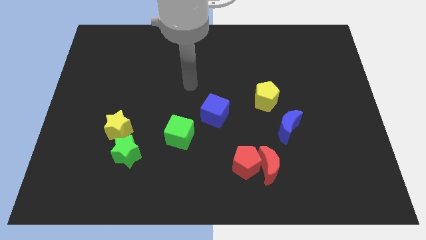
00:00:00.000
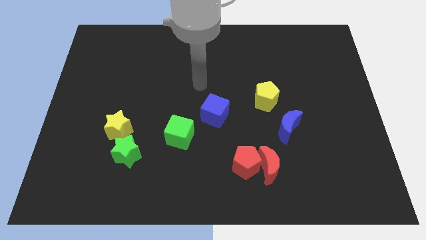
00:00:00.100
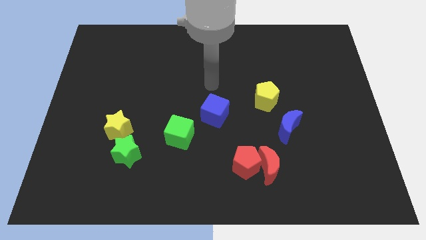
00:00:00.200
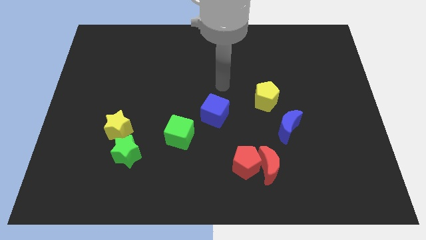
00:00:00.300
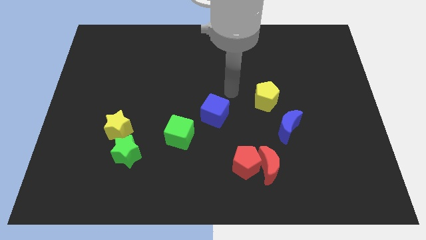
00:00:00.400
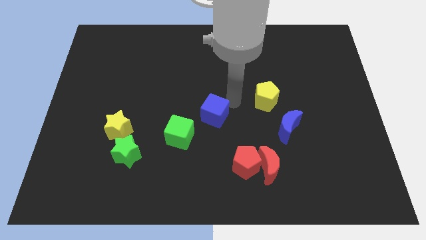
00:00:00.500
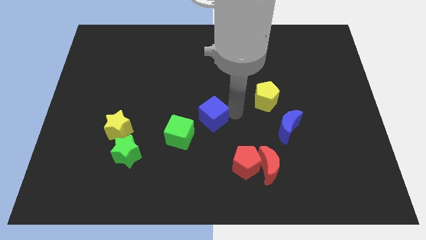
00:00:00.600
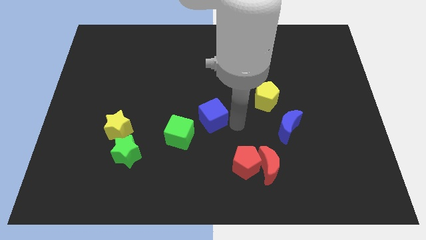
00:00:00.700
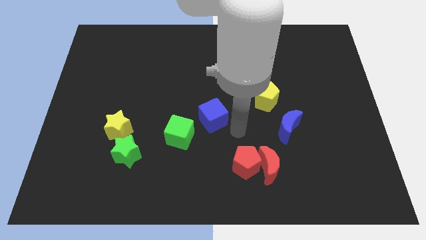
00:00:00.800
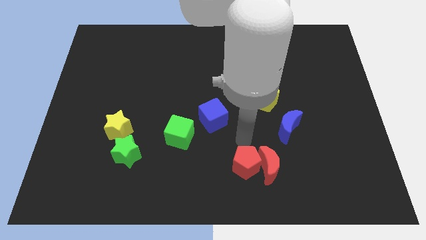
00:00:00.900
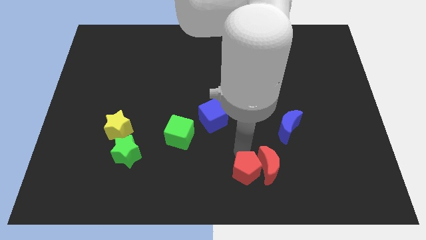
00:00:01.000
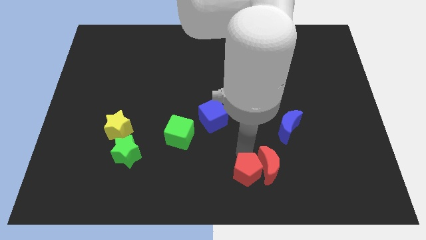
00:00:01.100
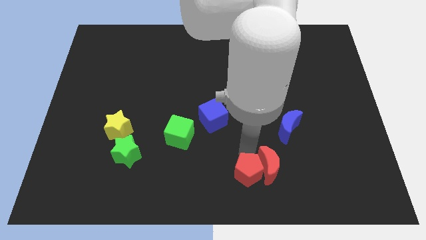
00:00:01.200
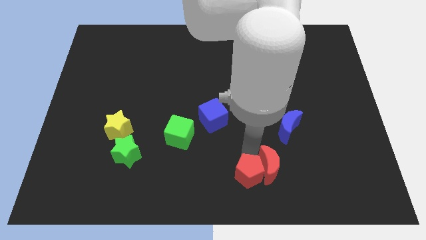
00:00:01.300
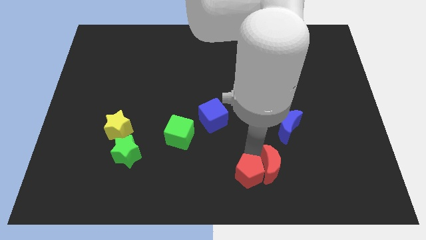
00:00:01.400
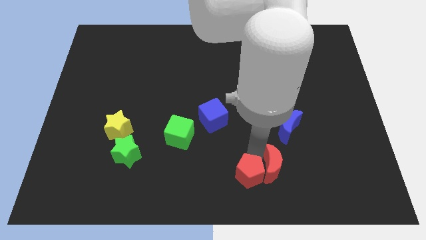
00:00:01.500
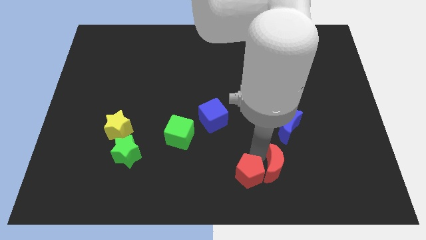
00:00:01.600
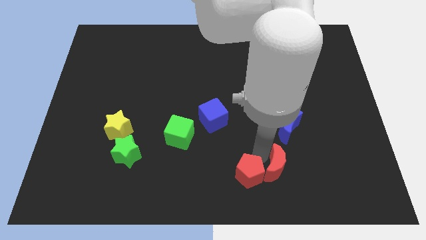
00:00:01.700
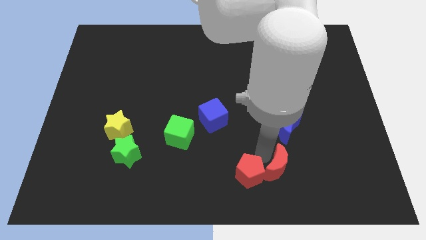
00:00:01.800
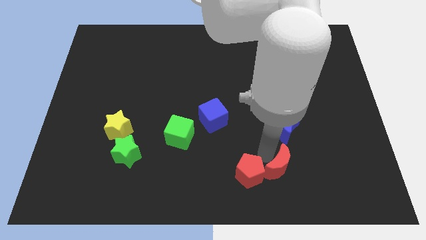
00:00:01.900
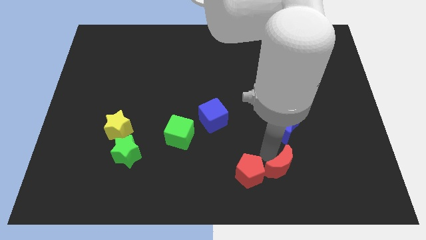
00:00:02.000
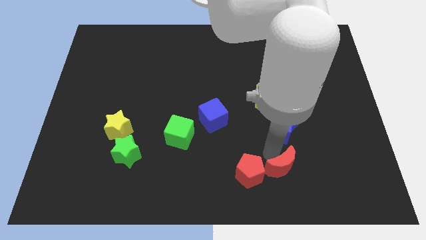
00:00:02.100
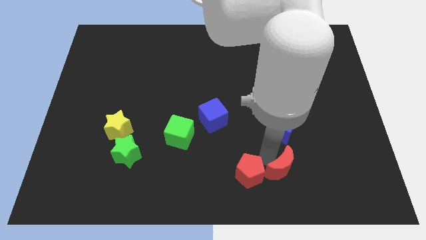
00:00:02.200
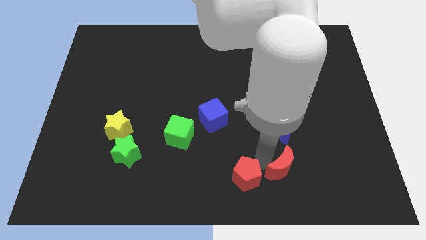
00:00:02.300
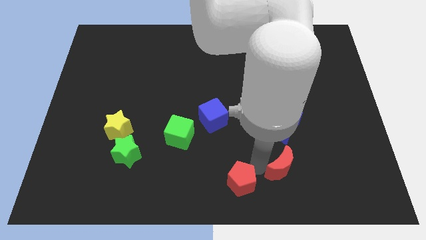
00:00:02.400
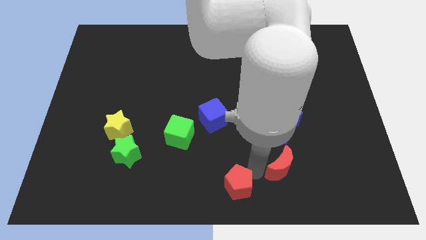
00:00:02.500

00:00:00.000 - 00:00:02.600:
move the red moon away from the red pentagon

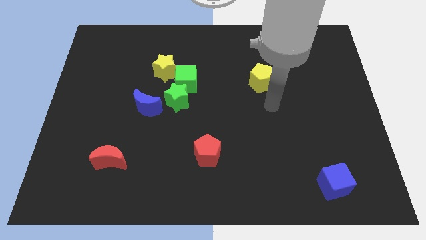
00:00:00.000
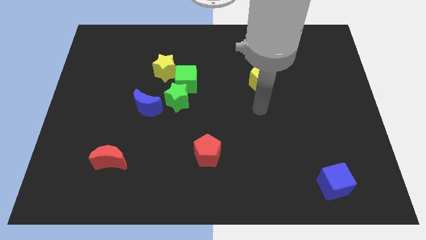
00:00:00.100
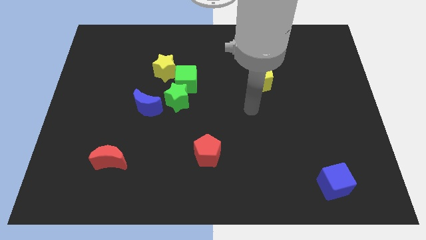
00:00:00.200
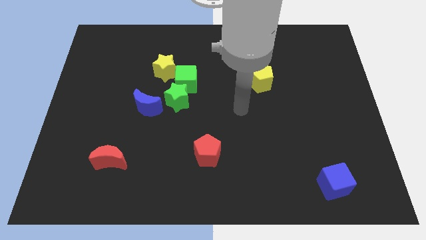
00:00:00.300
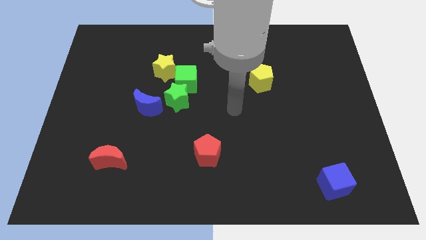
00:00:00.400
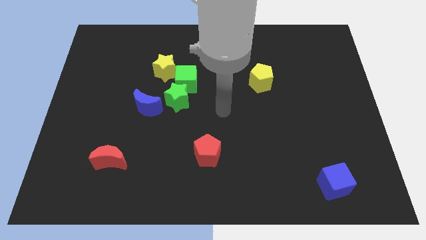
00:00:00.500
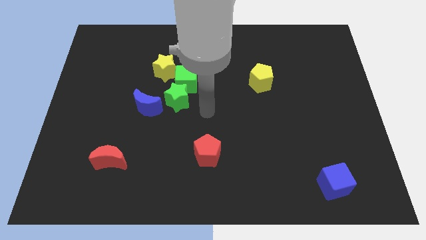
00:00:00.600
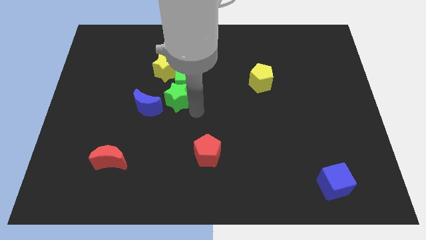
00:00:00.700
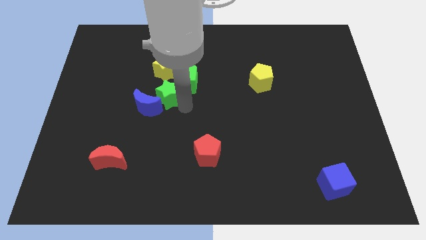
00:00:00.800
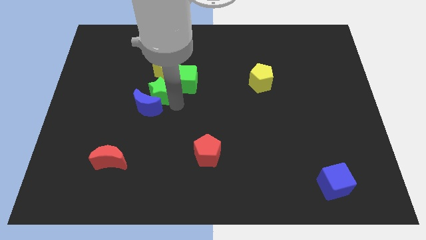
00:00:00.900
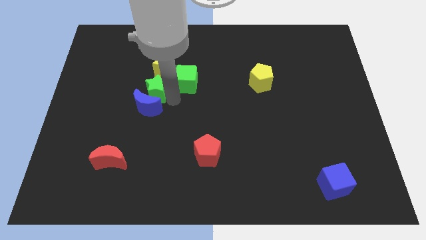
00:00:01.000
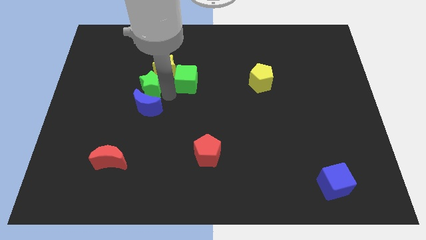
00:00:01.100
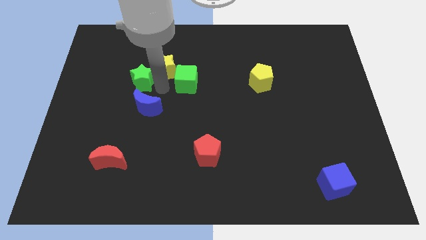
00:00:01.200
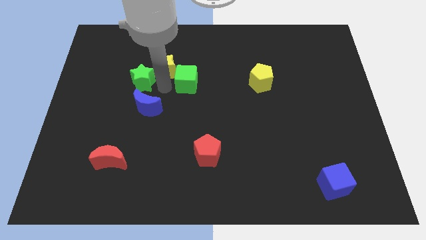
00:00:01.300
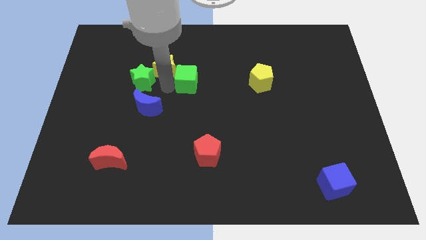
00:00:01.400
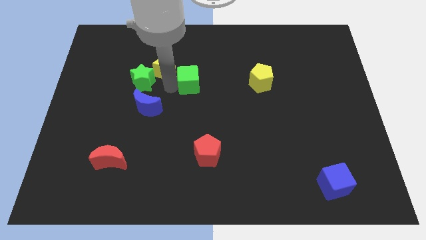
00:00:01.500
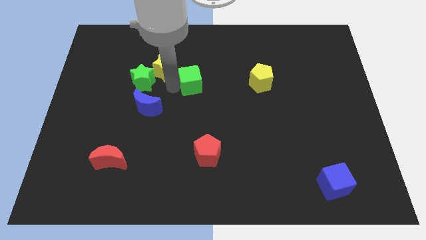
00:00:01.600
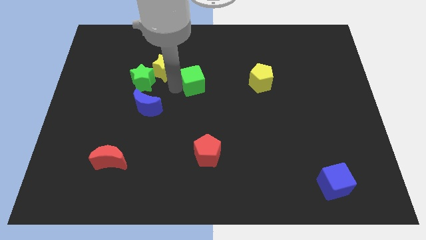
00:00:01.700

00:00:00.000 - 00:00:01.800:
pull the green cube apart from the green star and yellow star

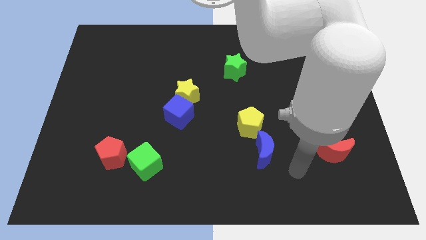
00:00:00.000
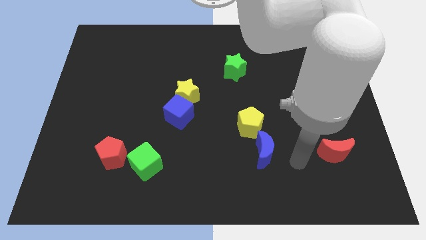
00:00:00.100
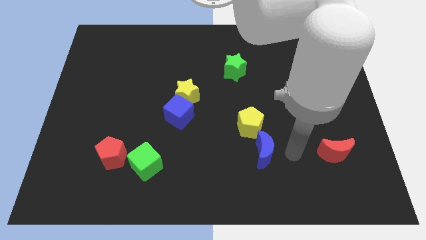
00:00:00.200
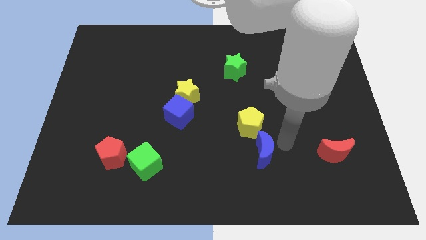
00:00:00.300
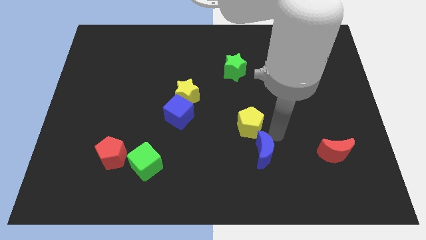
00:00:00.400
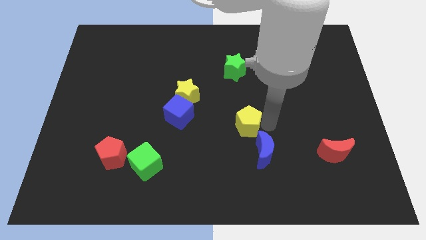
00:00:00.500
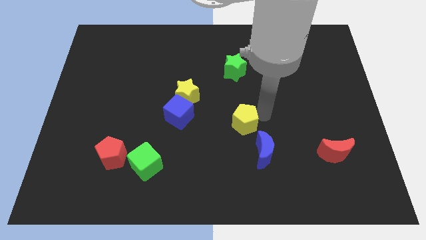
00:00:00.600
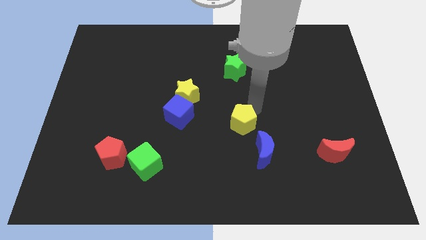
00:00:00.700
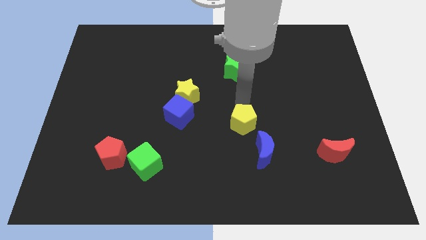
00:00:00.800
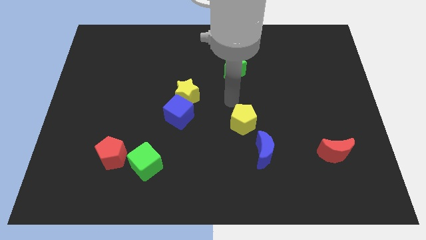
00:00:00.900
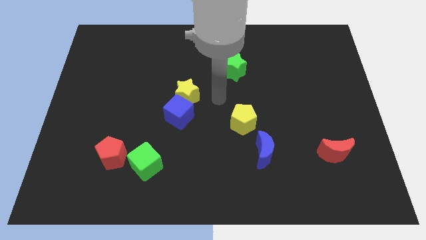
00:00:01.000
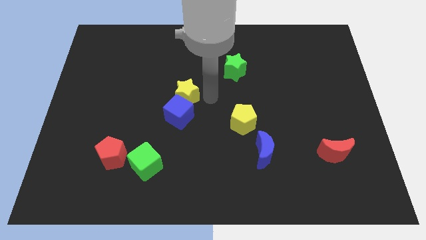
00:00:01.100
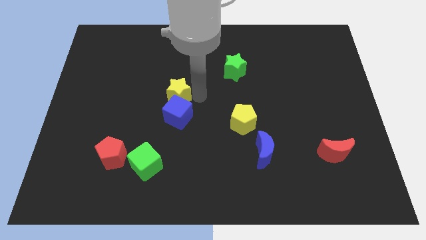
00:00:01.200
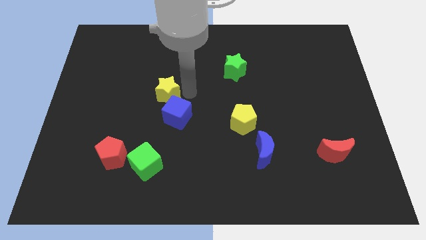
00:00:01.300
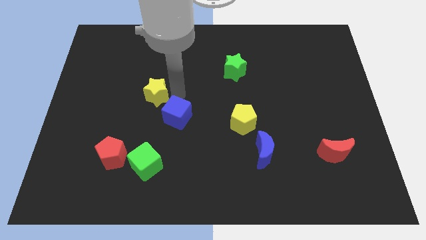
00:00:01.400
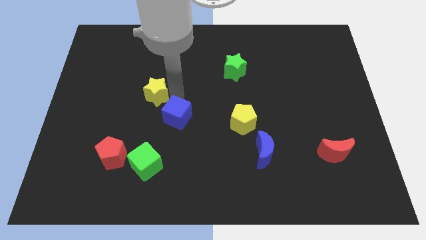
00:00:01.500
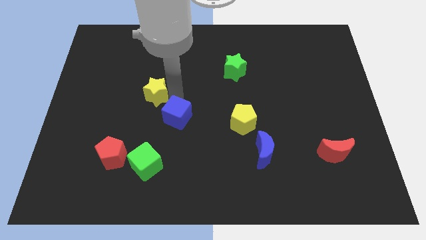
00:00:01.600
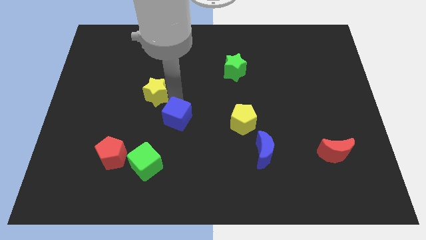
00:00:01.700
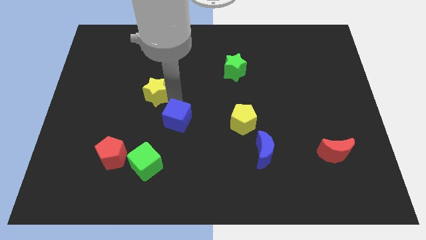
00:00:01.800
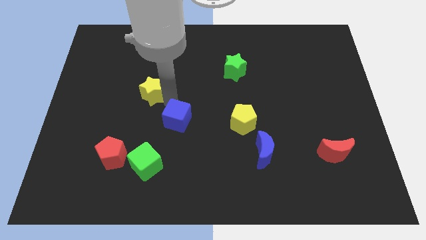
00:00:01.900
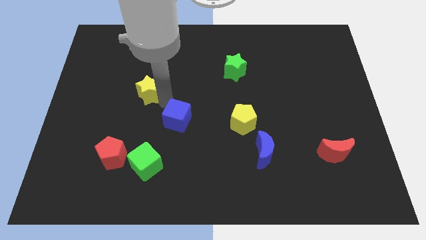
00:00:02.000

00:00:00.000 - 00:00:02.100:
separate the blue cube from the yellow star

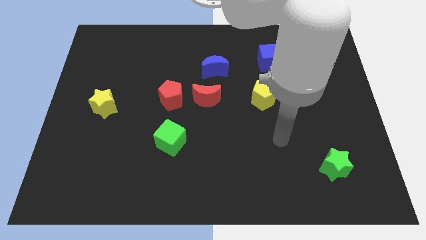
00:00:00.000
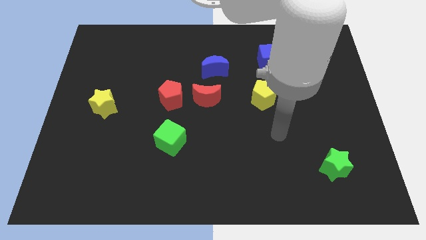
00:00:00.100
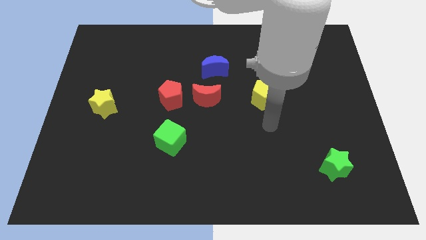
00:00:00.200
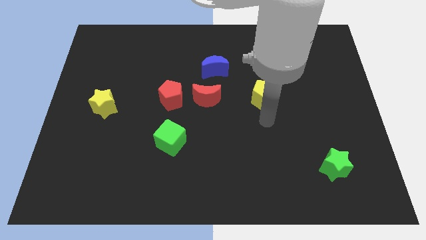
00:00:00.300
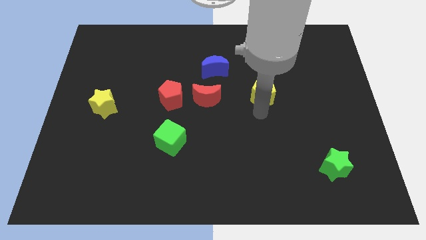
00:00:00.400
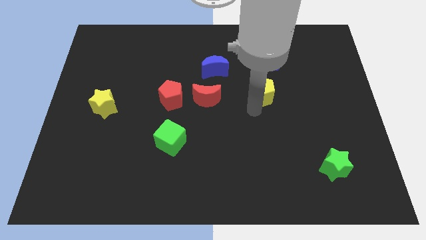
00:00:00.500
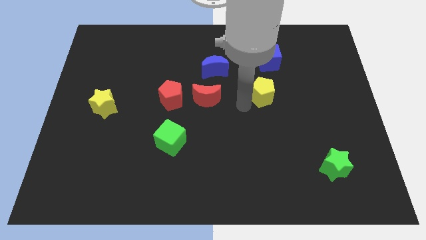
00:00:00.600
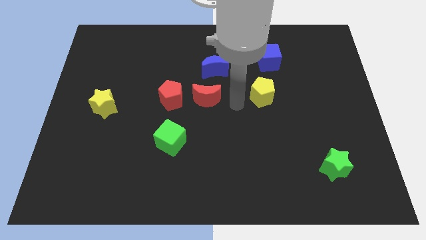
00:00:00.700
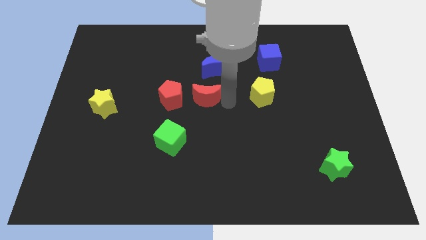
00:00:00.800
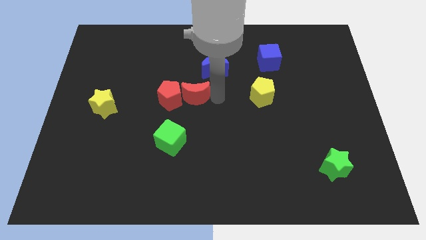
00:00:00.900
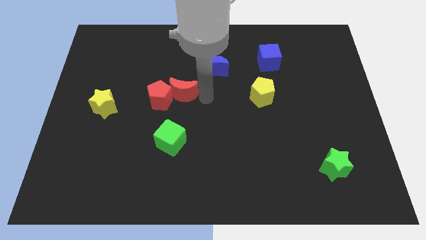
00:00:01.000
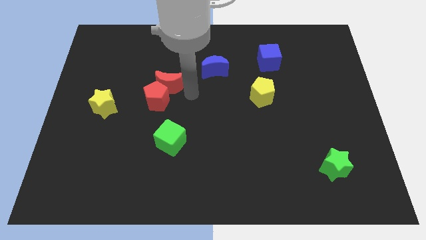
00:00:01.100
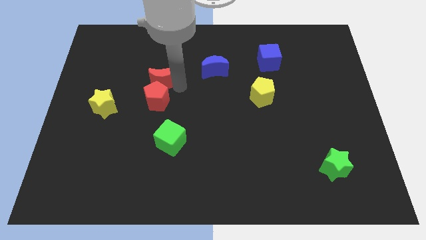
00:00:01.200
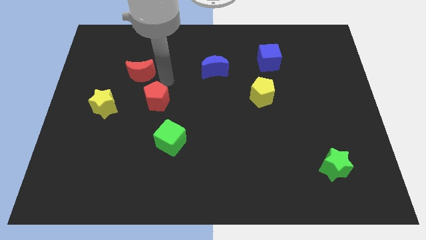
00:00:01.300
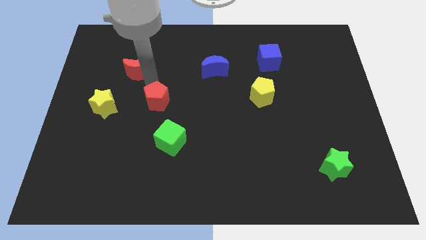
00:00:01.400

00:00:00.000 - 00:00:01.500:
separate the red pentagon from the red moon

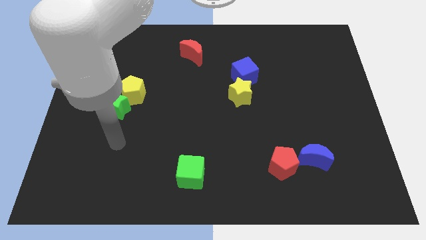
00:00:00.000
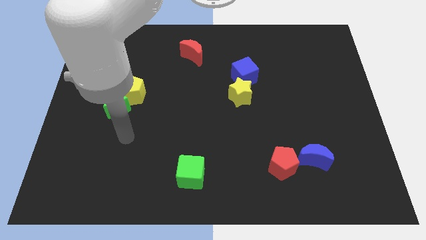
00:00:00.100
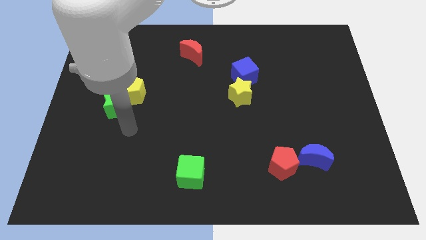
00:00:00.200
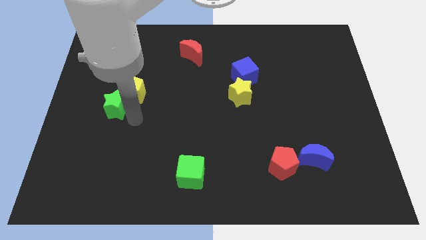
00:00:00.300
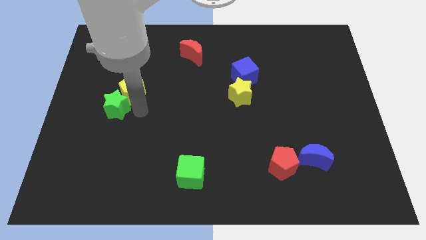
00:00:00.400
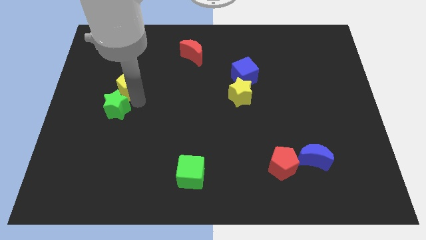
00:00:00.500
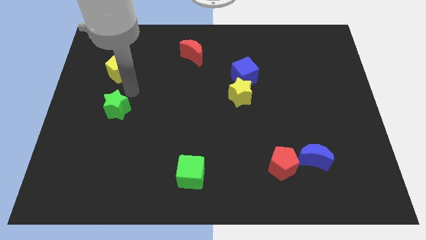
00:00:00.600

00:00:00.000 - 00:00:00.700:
pull the green star apart from the yellow pentagon

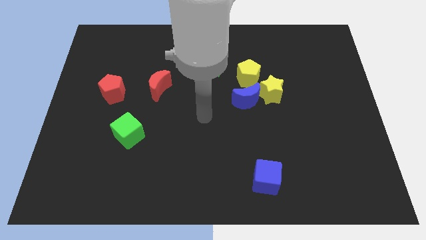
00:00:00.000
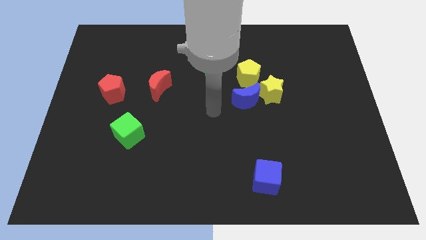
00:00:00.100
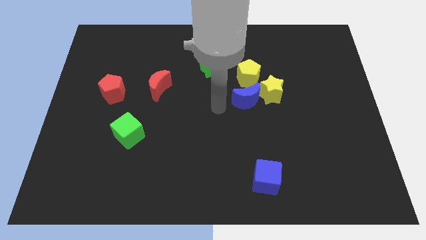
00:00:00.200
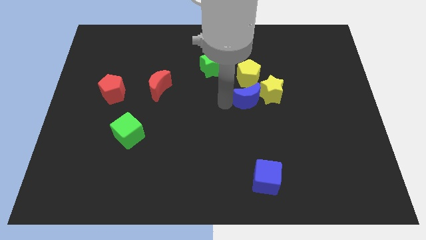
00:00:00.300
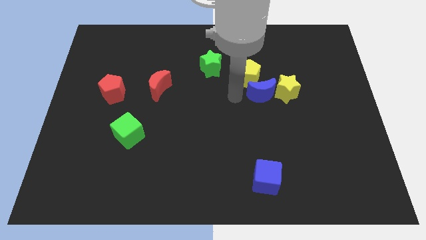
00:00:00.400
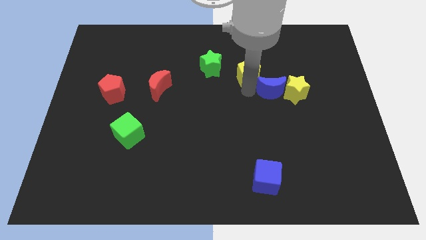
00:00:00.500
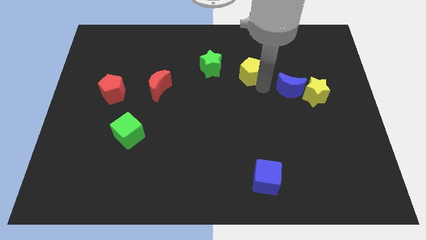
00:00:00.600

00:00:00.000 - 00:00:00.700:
pull the yellow star apart from the blue moon and yellow pentagon
